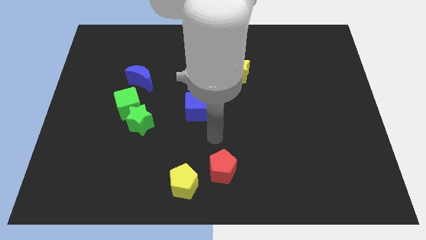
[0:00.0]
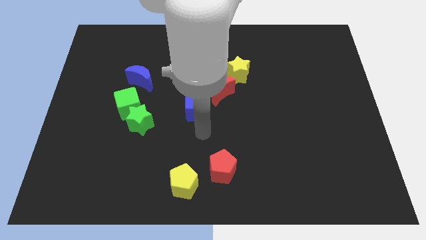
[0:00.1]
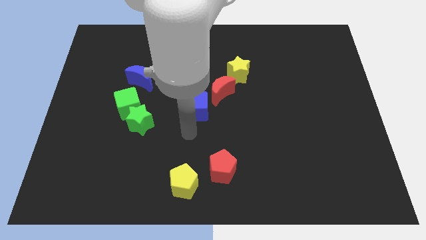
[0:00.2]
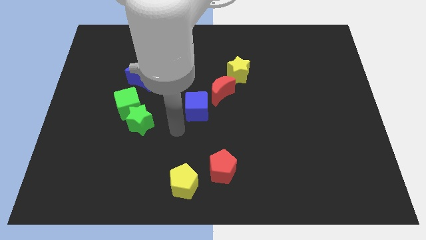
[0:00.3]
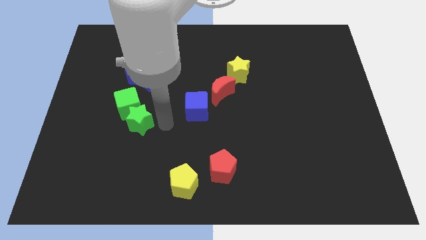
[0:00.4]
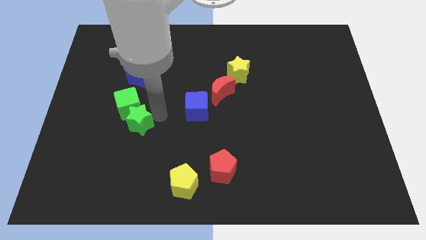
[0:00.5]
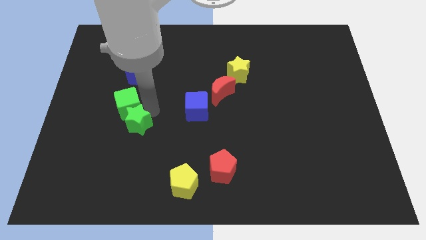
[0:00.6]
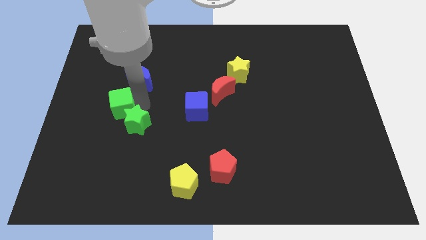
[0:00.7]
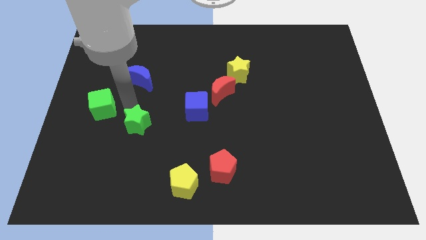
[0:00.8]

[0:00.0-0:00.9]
move the green star away from the green cube

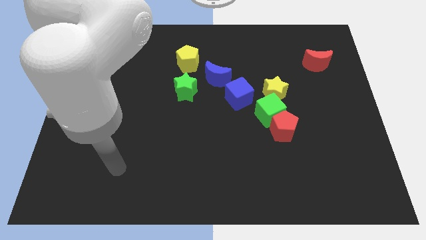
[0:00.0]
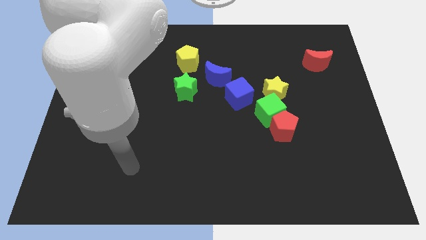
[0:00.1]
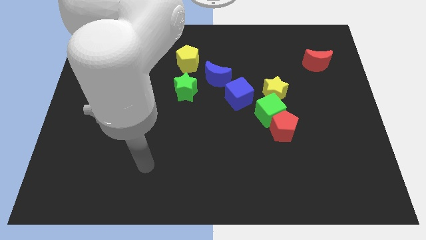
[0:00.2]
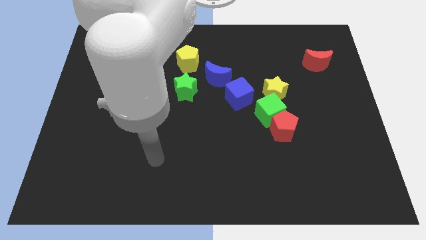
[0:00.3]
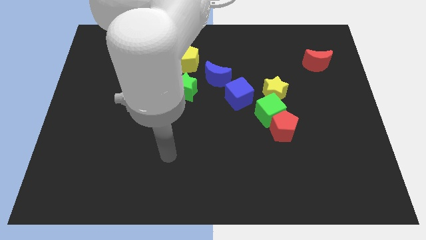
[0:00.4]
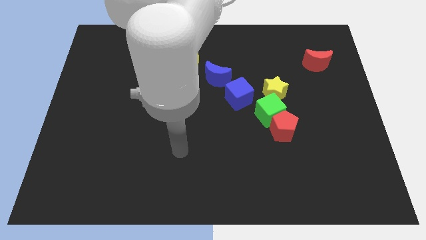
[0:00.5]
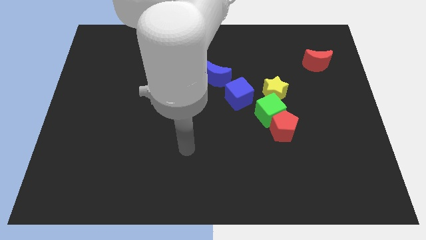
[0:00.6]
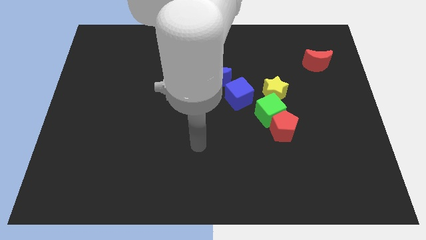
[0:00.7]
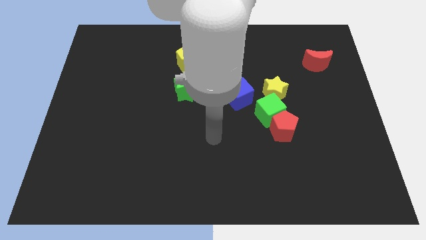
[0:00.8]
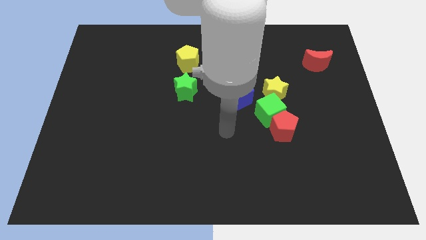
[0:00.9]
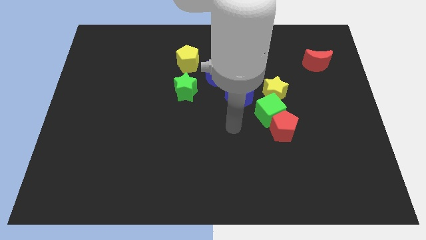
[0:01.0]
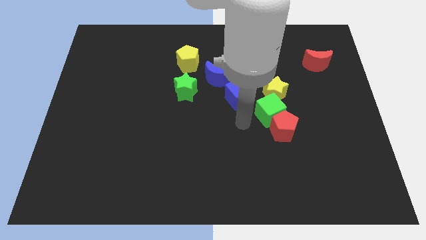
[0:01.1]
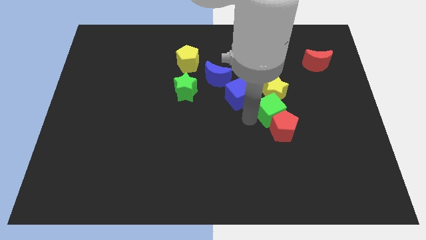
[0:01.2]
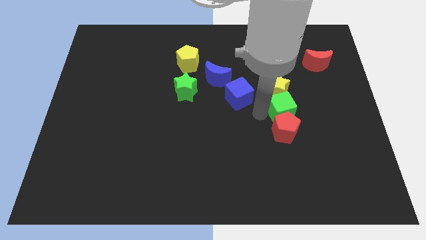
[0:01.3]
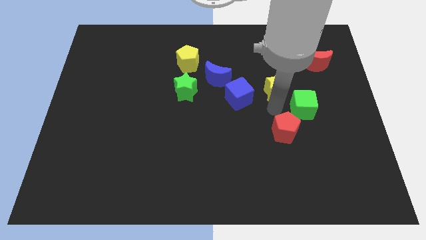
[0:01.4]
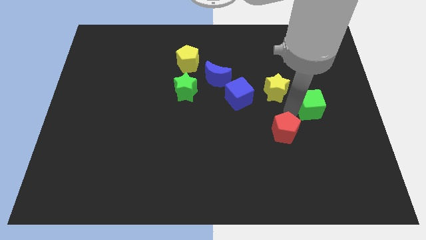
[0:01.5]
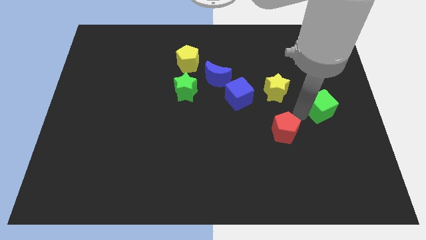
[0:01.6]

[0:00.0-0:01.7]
move the red pentagon away from the green cube

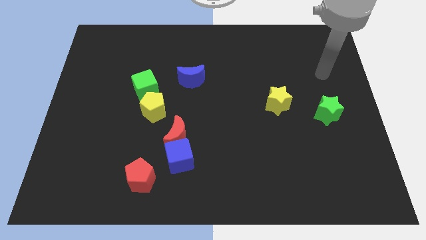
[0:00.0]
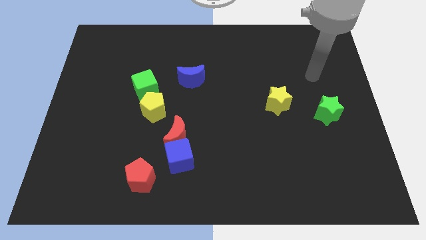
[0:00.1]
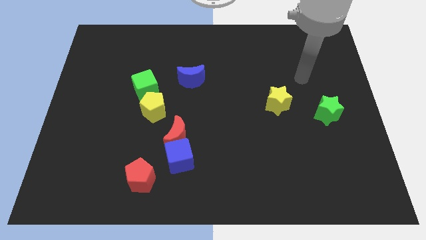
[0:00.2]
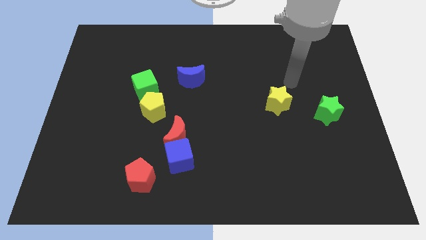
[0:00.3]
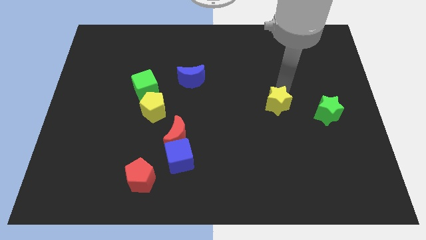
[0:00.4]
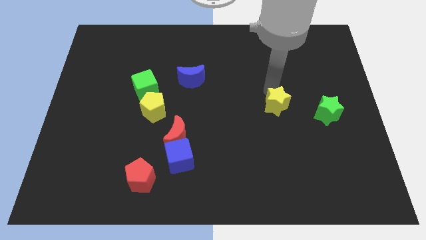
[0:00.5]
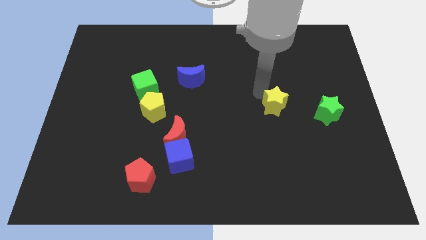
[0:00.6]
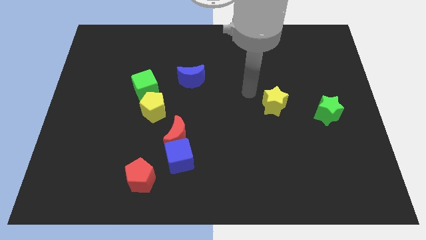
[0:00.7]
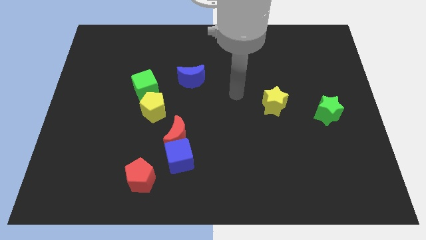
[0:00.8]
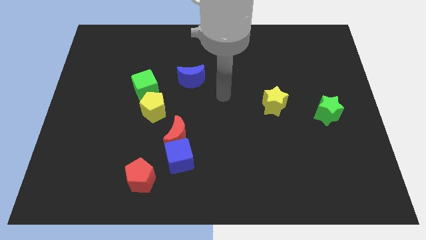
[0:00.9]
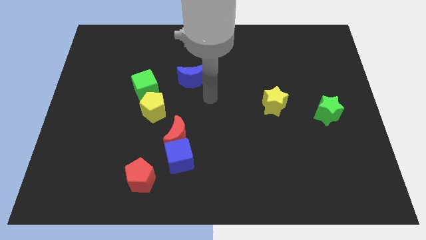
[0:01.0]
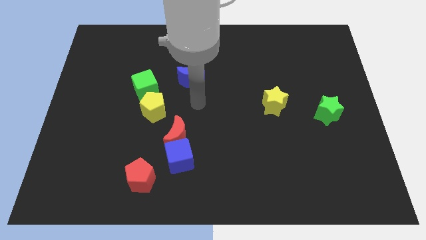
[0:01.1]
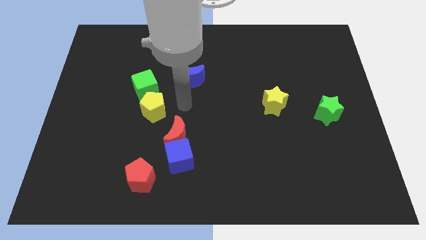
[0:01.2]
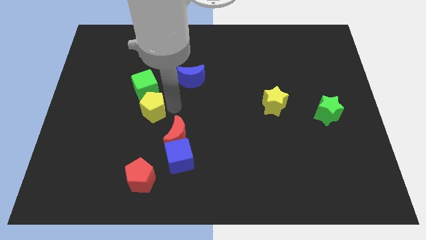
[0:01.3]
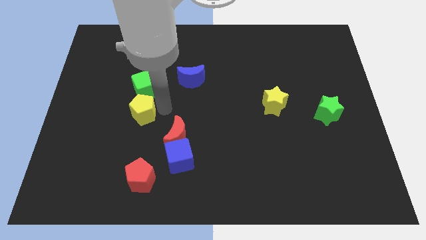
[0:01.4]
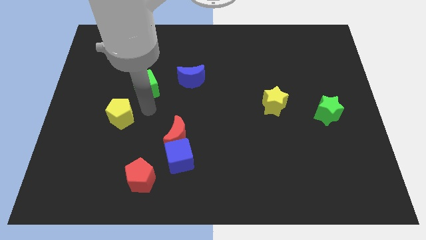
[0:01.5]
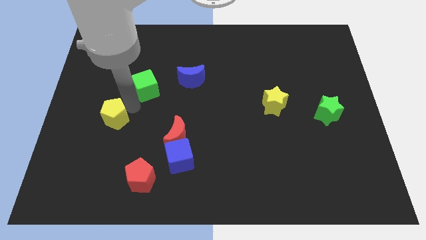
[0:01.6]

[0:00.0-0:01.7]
move the green cube away from the yellow pentagon

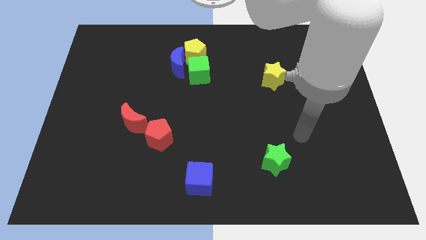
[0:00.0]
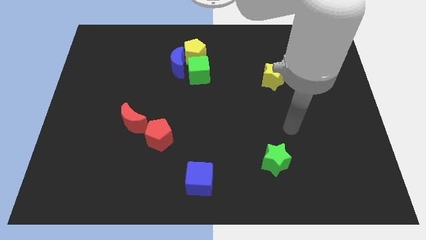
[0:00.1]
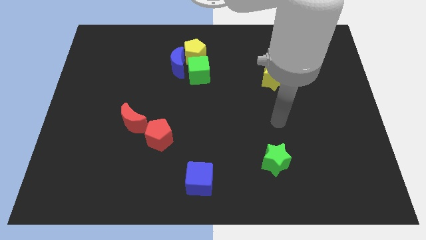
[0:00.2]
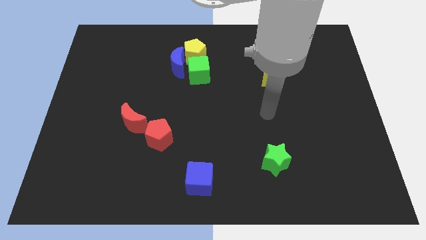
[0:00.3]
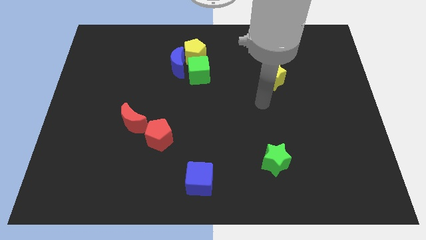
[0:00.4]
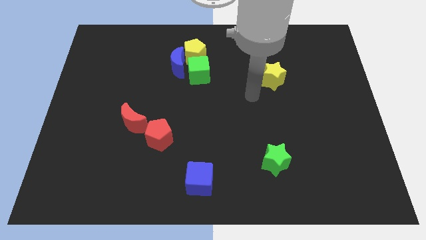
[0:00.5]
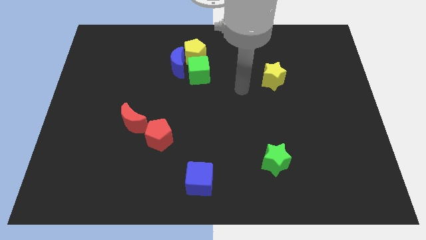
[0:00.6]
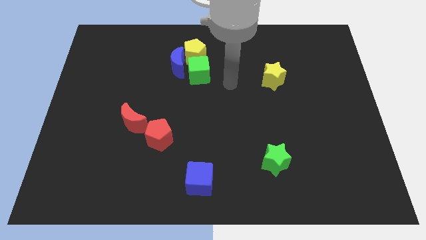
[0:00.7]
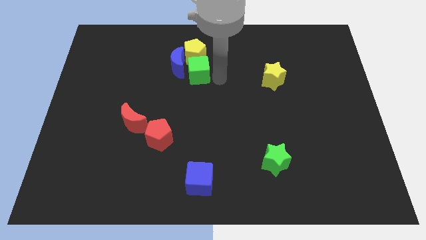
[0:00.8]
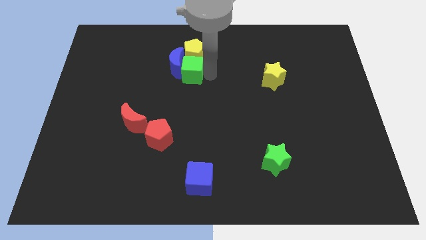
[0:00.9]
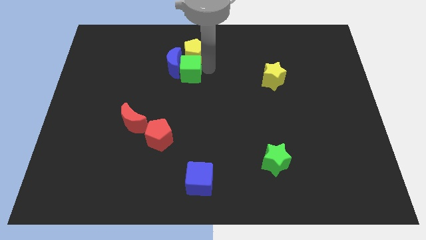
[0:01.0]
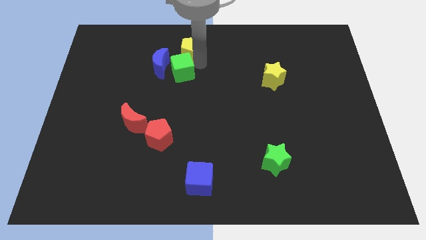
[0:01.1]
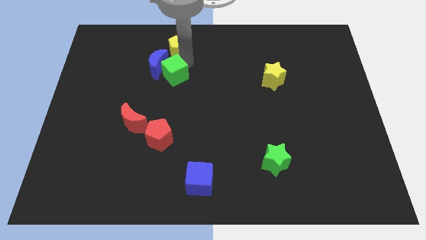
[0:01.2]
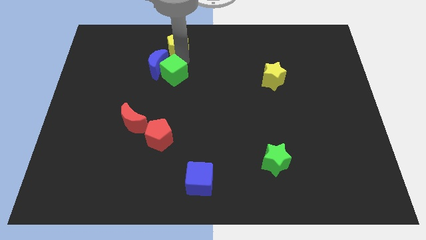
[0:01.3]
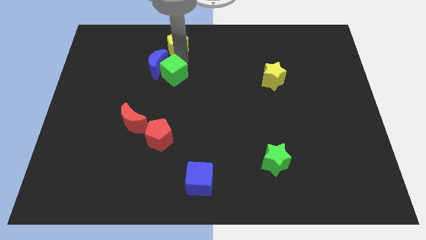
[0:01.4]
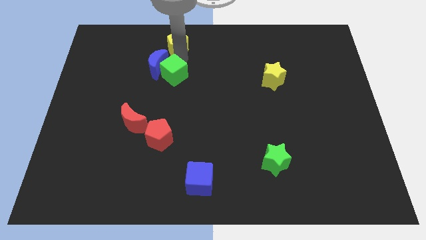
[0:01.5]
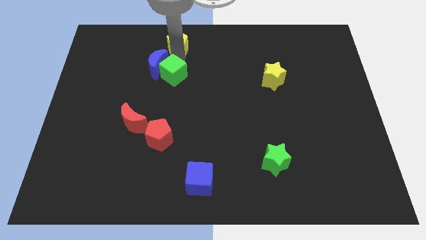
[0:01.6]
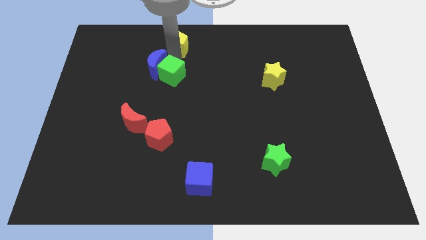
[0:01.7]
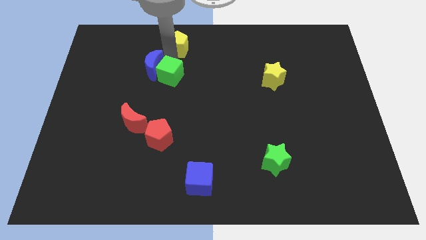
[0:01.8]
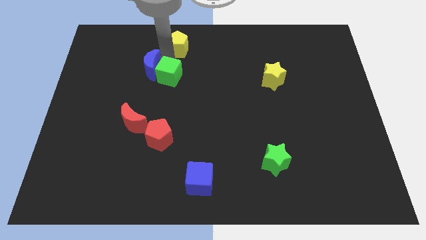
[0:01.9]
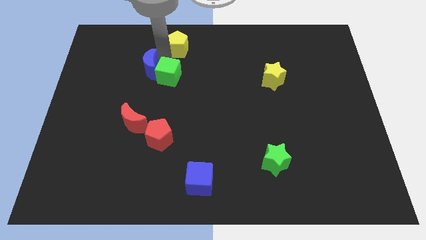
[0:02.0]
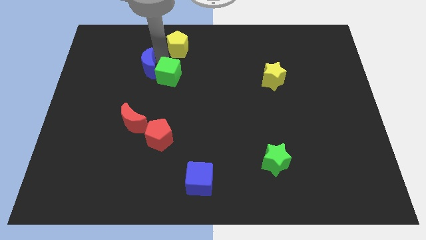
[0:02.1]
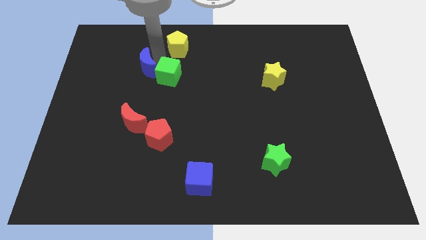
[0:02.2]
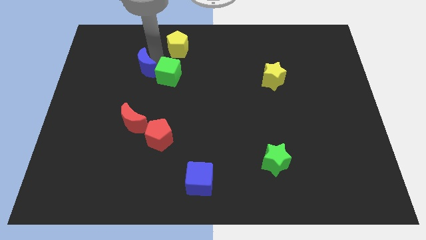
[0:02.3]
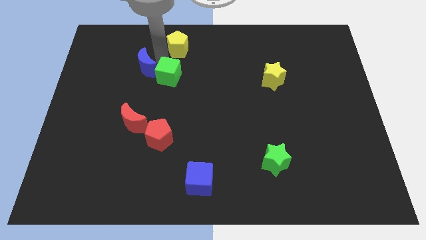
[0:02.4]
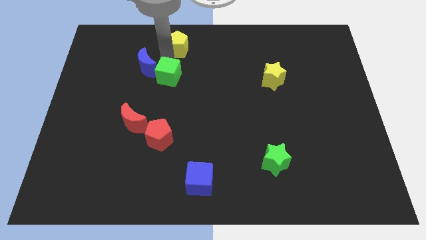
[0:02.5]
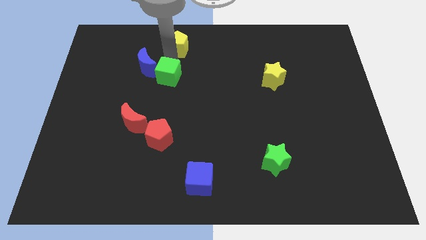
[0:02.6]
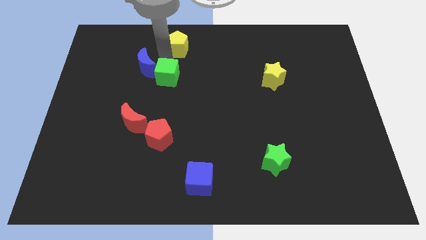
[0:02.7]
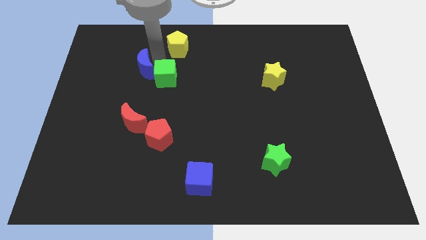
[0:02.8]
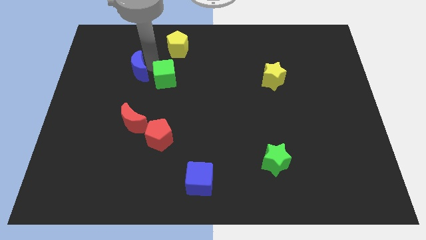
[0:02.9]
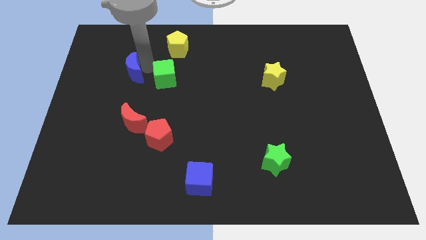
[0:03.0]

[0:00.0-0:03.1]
move the blue moon away from the yellow pentagon and green cube

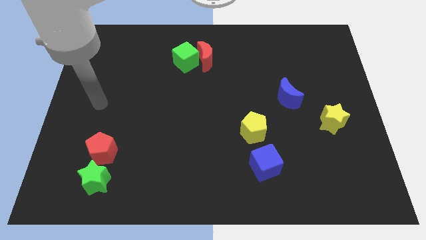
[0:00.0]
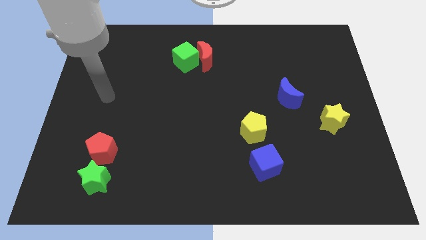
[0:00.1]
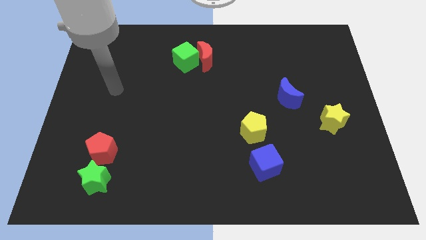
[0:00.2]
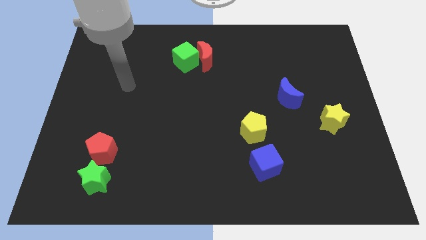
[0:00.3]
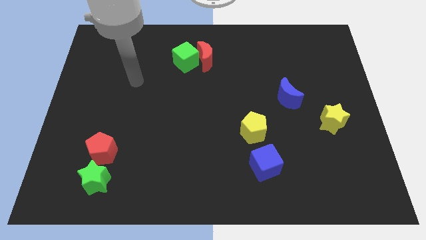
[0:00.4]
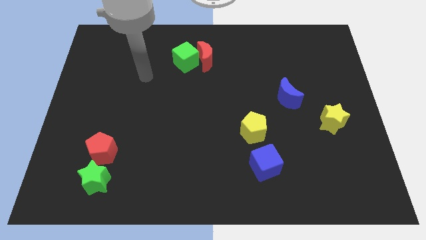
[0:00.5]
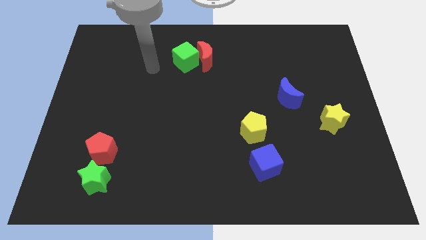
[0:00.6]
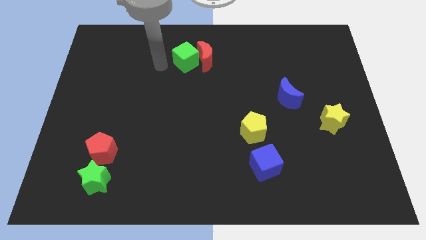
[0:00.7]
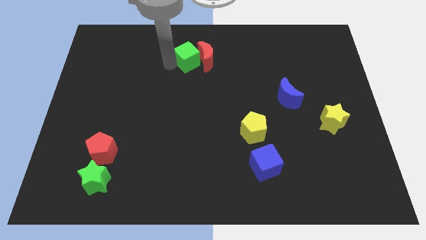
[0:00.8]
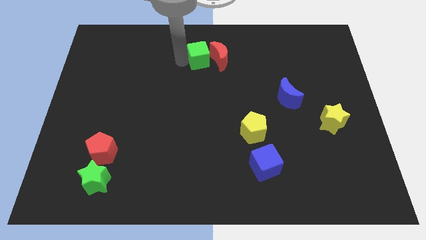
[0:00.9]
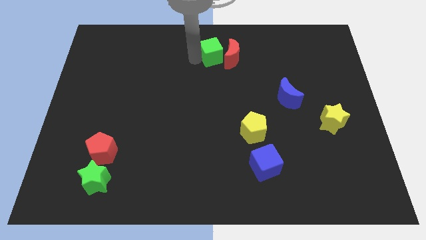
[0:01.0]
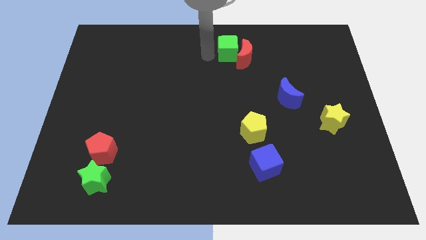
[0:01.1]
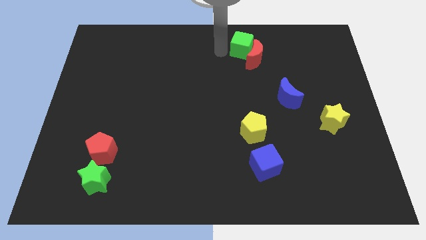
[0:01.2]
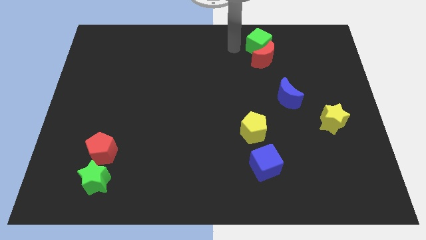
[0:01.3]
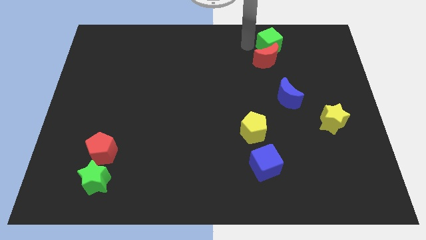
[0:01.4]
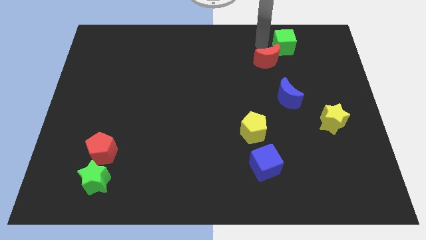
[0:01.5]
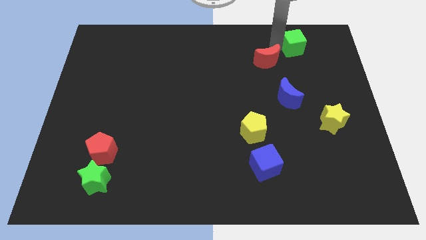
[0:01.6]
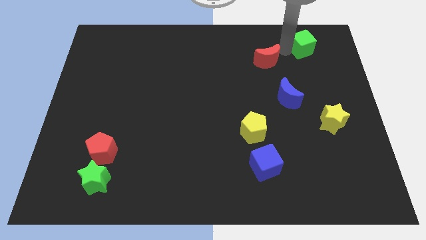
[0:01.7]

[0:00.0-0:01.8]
move the red moon away from the green cube
